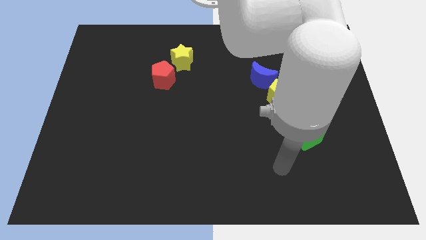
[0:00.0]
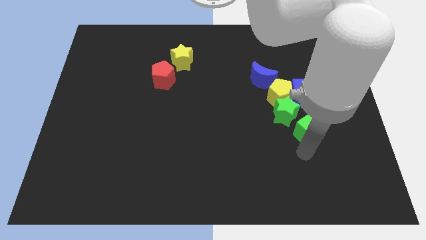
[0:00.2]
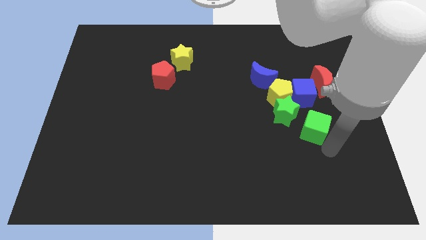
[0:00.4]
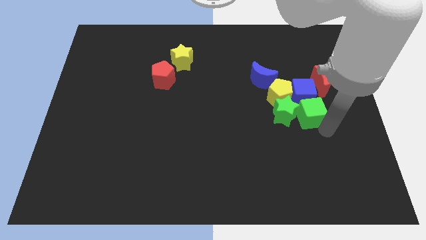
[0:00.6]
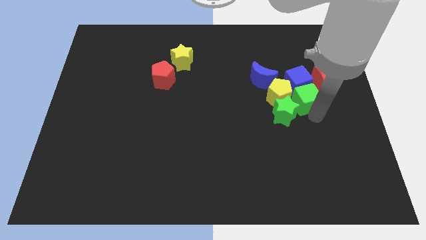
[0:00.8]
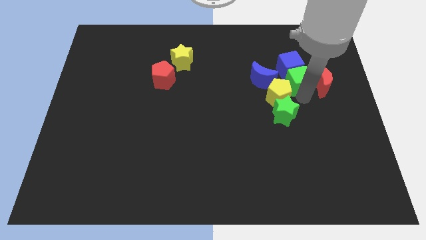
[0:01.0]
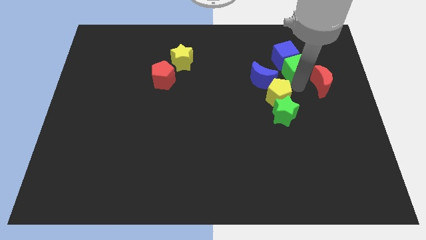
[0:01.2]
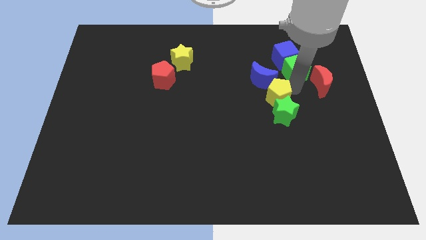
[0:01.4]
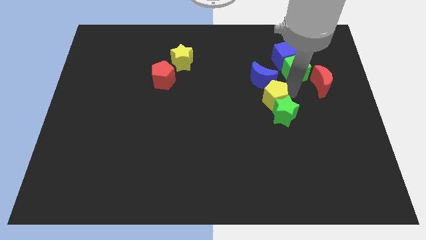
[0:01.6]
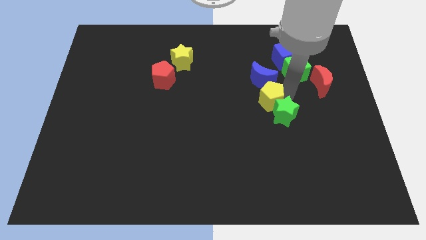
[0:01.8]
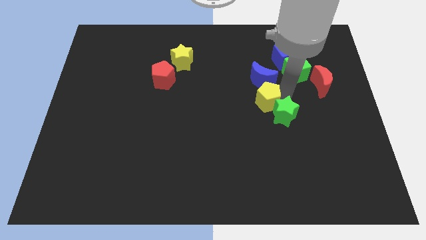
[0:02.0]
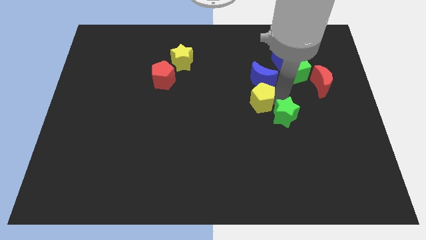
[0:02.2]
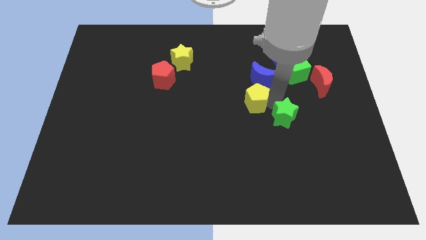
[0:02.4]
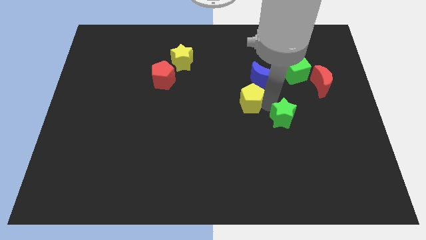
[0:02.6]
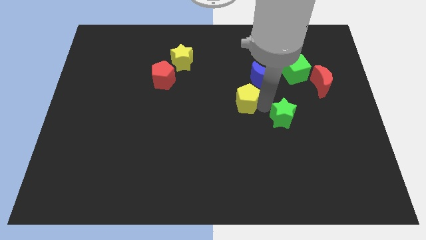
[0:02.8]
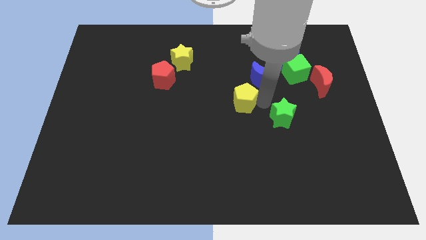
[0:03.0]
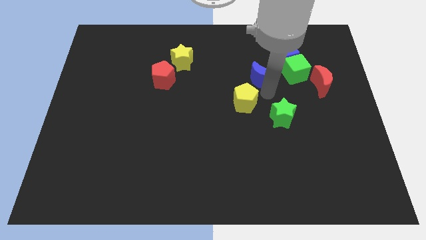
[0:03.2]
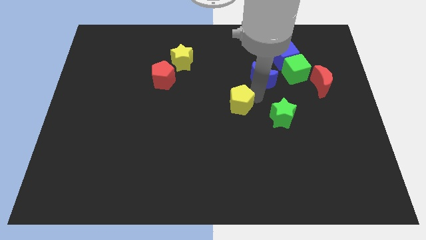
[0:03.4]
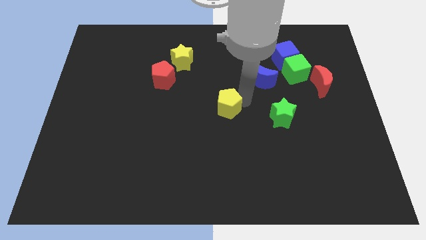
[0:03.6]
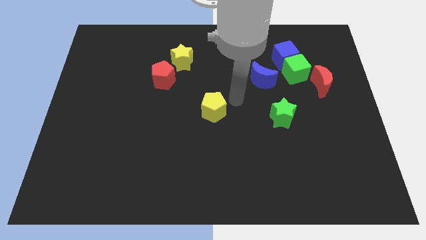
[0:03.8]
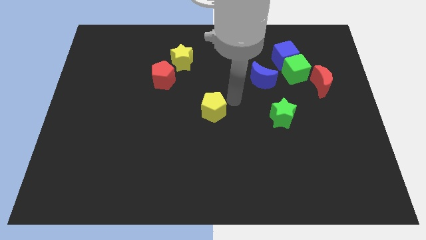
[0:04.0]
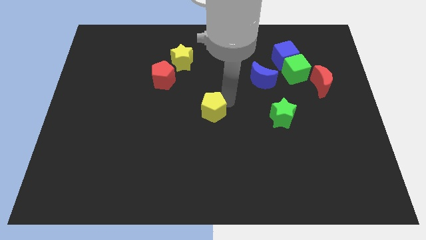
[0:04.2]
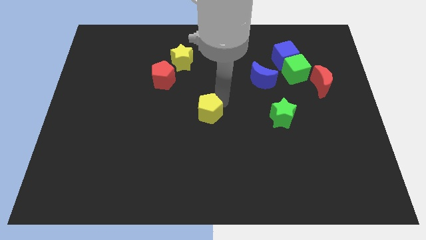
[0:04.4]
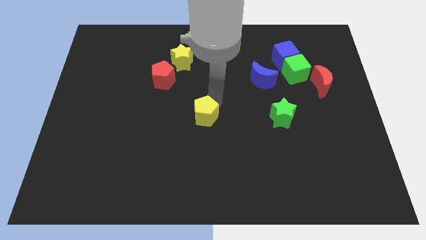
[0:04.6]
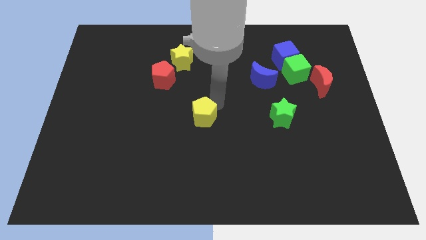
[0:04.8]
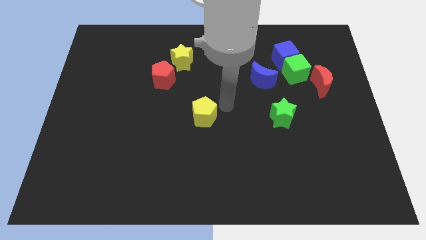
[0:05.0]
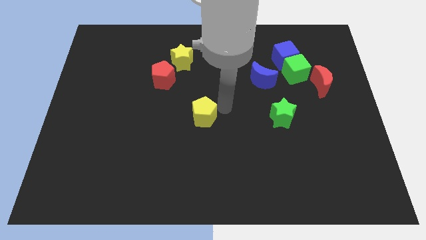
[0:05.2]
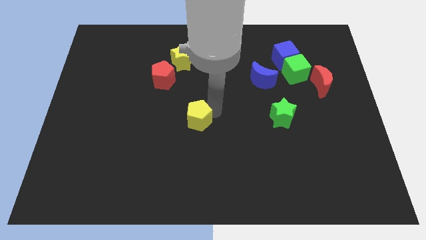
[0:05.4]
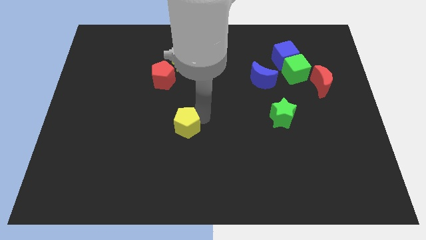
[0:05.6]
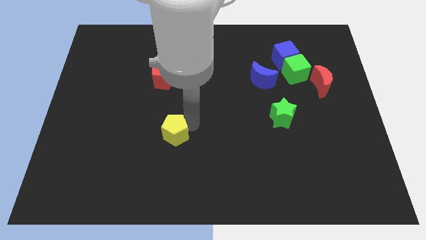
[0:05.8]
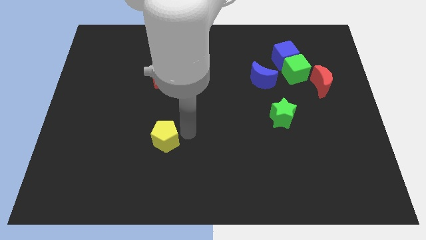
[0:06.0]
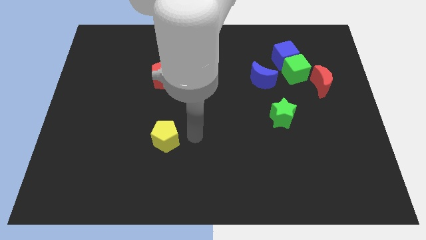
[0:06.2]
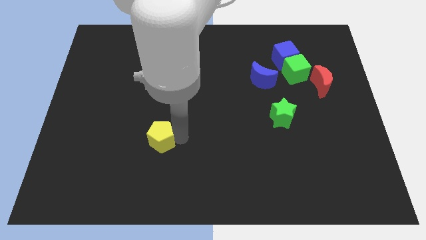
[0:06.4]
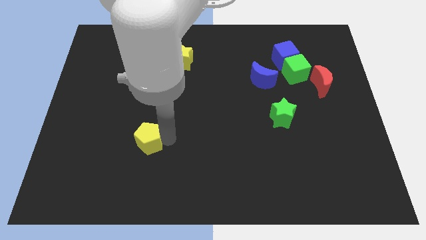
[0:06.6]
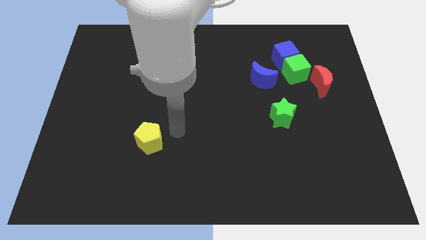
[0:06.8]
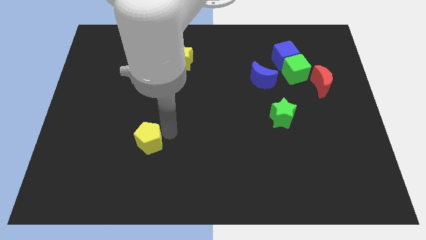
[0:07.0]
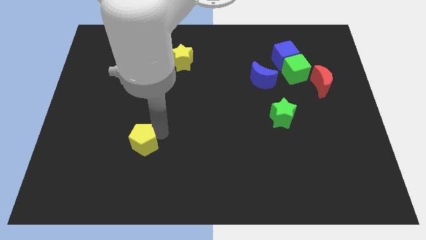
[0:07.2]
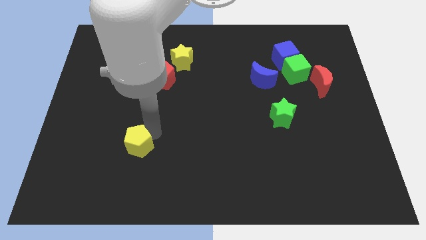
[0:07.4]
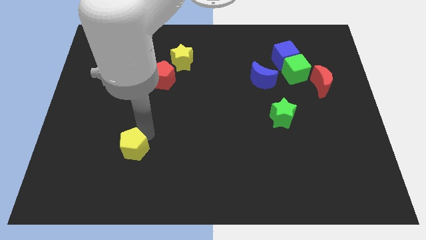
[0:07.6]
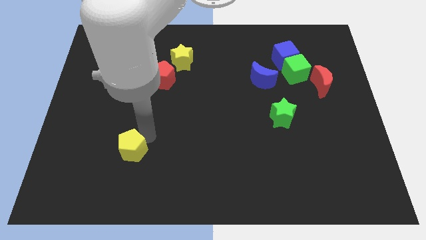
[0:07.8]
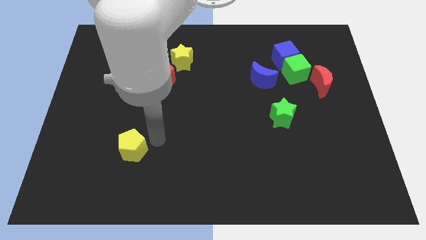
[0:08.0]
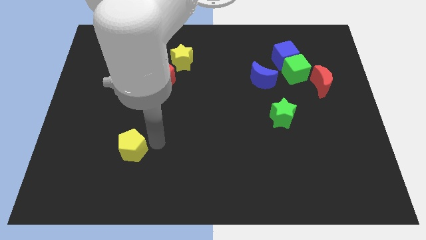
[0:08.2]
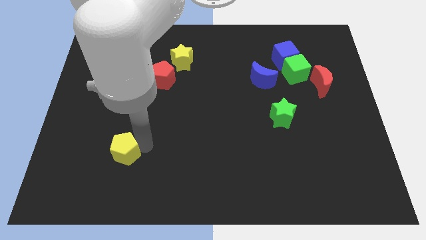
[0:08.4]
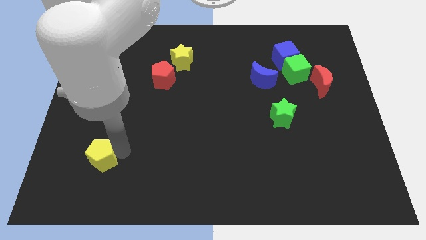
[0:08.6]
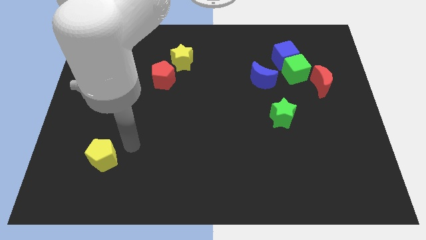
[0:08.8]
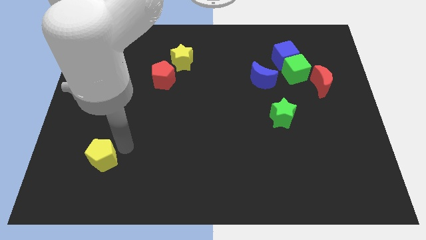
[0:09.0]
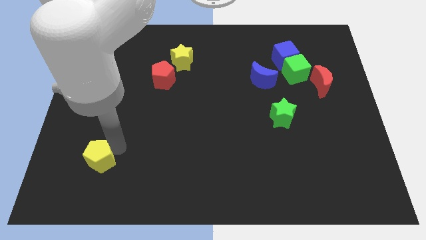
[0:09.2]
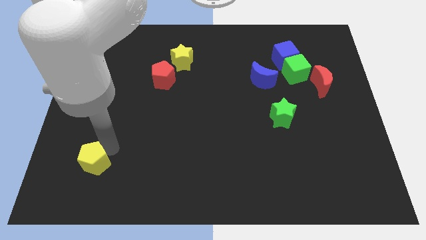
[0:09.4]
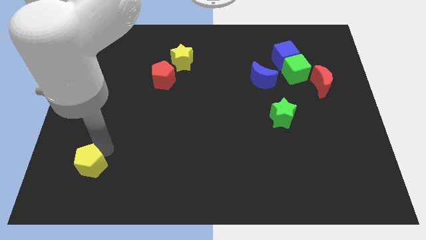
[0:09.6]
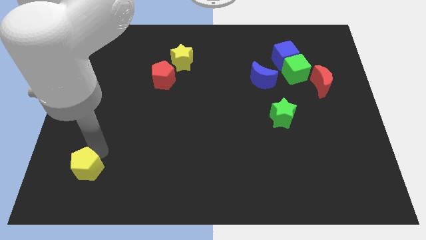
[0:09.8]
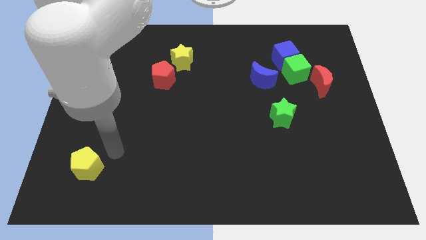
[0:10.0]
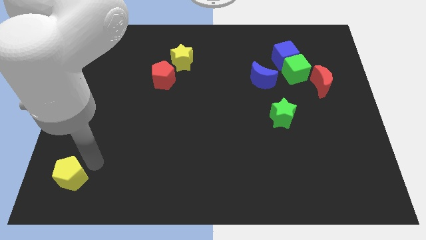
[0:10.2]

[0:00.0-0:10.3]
move the yellow pentagon to the lower left corner
